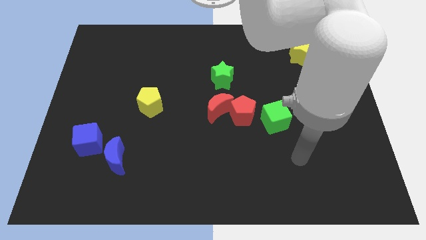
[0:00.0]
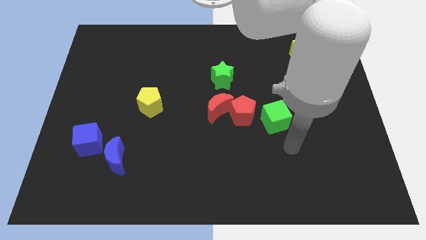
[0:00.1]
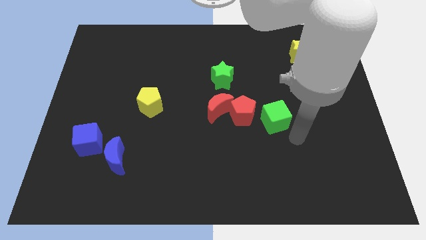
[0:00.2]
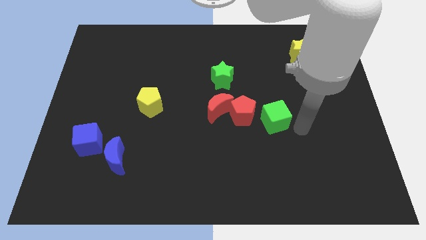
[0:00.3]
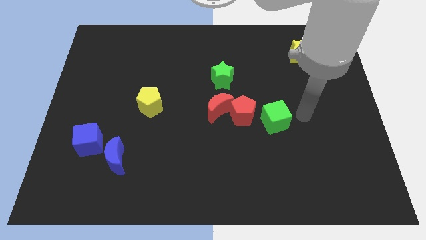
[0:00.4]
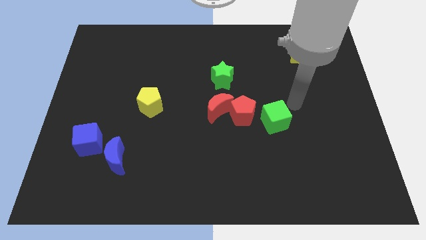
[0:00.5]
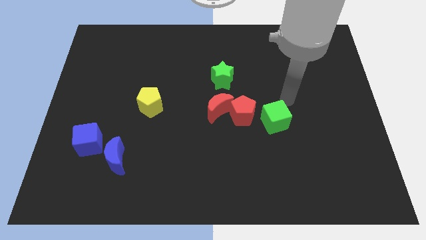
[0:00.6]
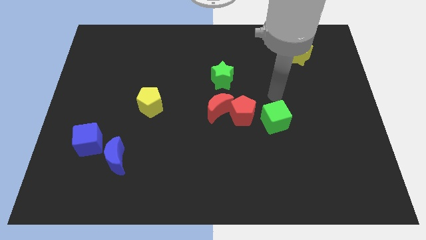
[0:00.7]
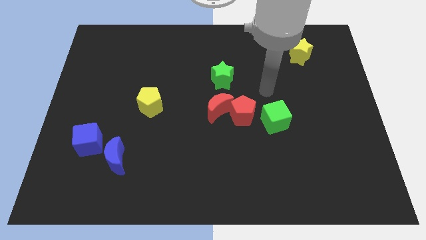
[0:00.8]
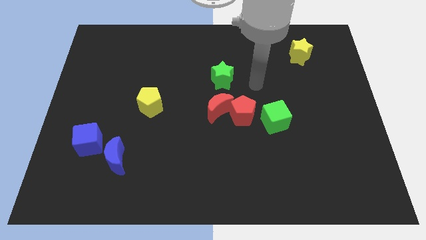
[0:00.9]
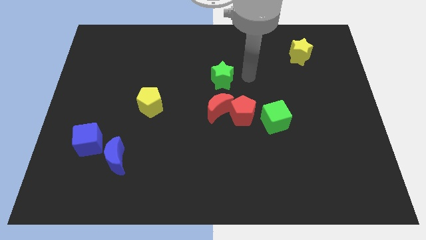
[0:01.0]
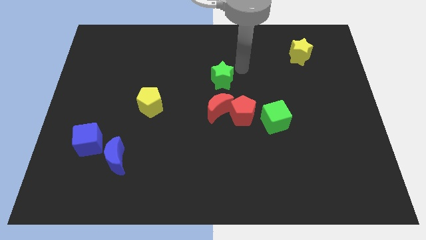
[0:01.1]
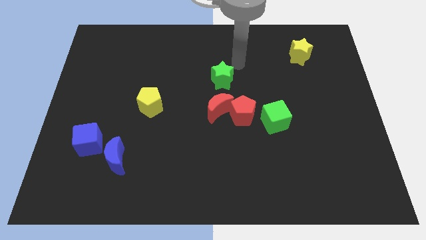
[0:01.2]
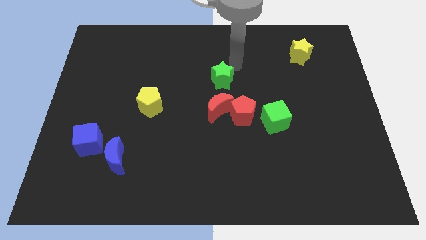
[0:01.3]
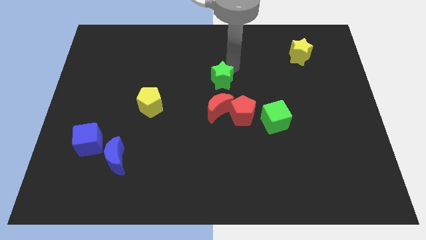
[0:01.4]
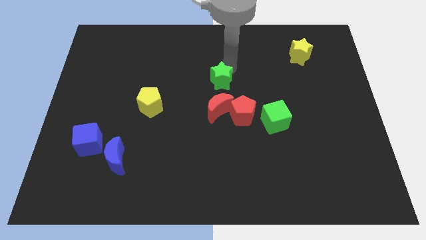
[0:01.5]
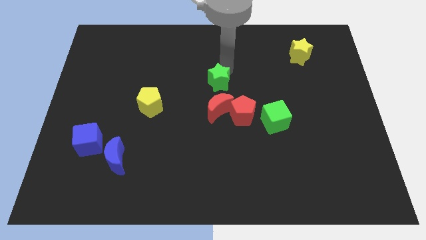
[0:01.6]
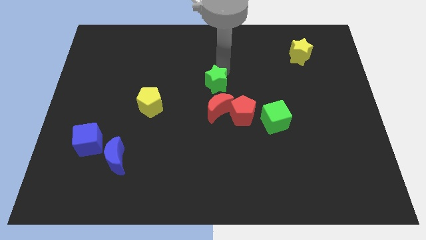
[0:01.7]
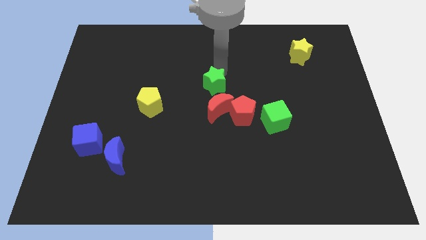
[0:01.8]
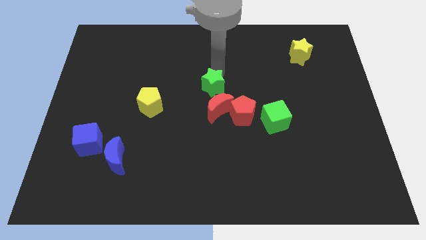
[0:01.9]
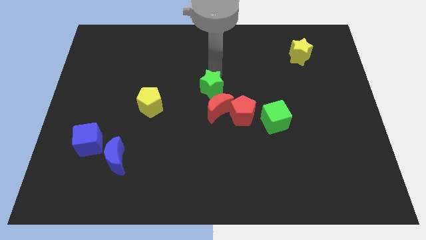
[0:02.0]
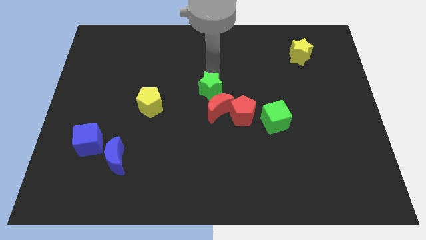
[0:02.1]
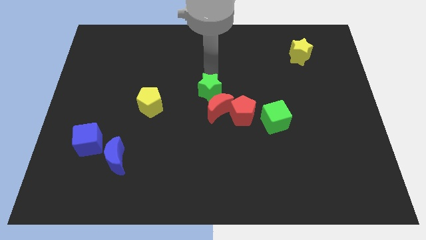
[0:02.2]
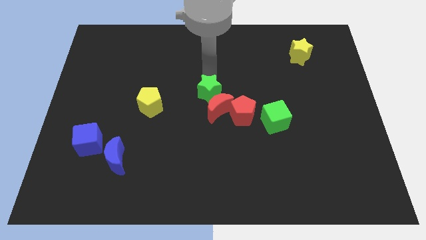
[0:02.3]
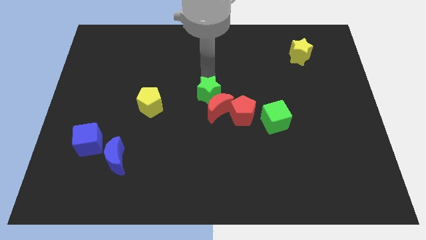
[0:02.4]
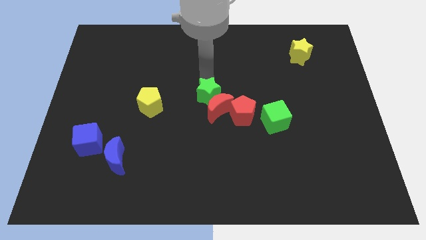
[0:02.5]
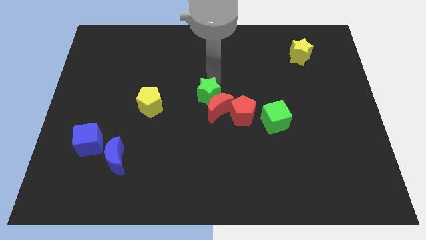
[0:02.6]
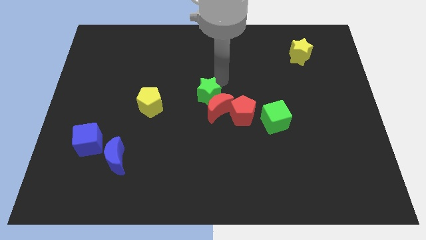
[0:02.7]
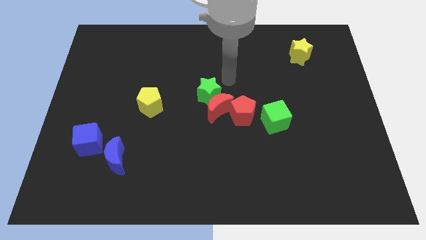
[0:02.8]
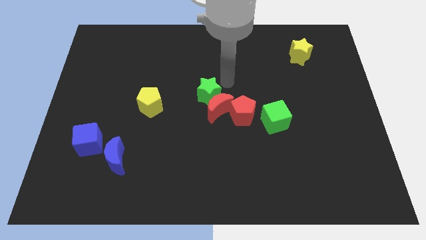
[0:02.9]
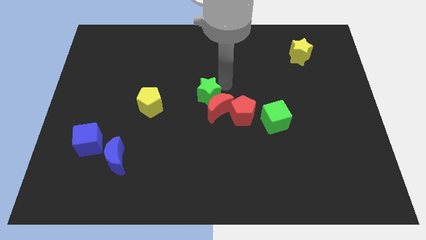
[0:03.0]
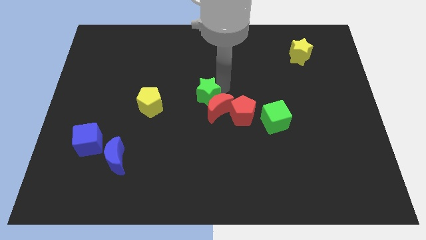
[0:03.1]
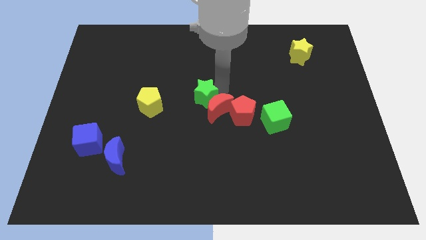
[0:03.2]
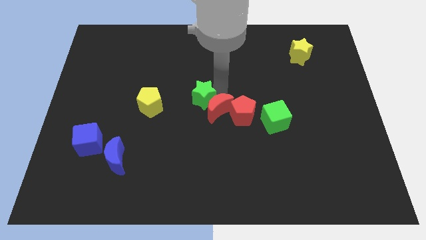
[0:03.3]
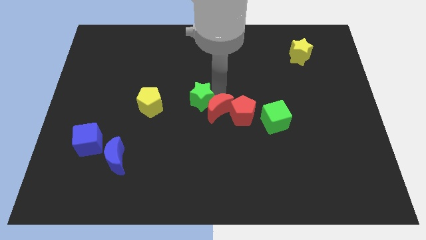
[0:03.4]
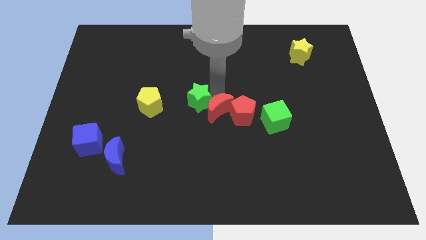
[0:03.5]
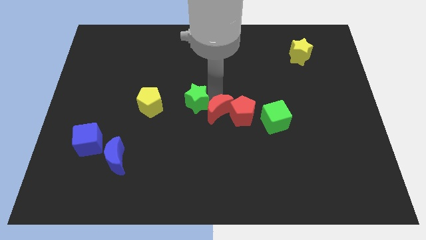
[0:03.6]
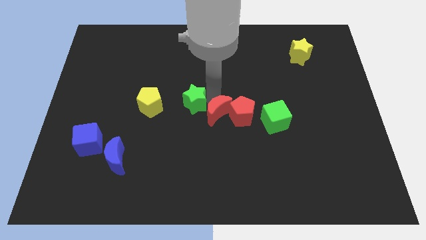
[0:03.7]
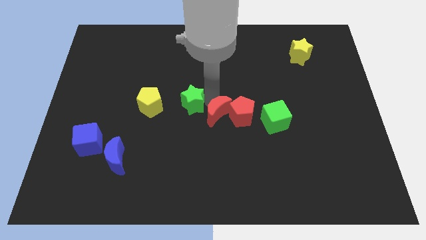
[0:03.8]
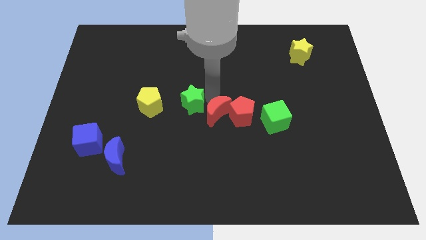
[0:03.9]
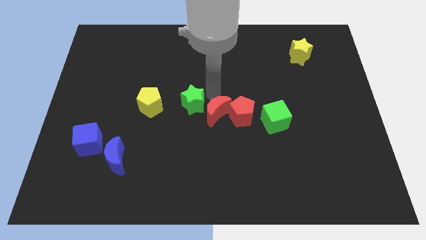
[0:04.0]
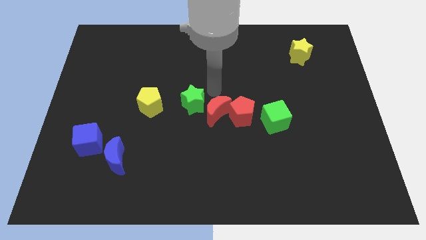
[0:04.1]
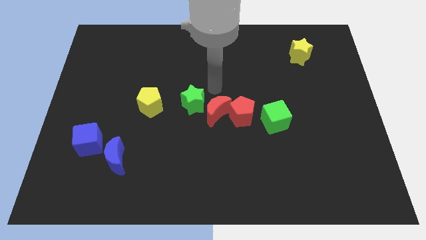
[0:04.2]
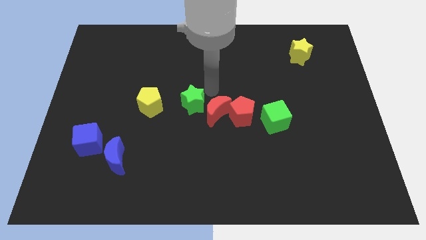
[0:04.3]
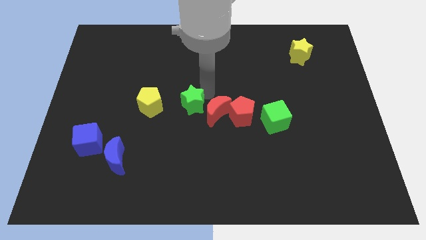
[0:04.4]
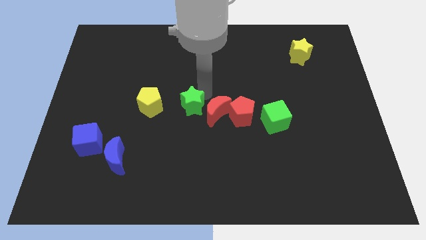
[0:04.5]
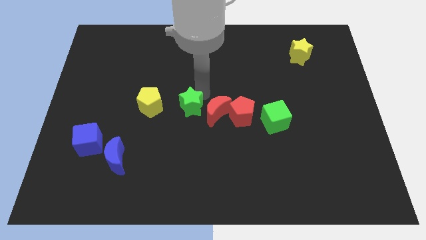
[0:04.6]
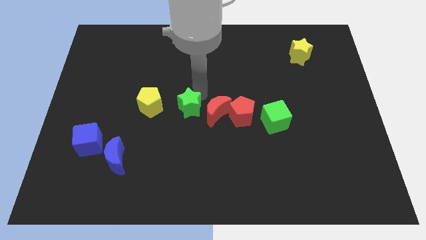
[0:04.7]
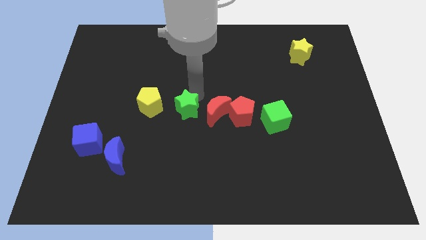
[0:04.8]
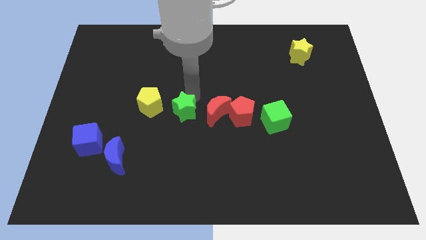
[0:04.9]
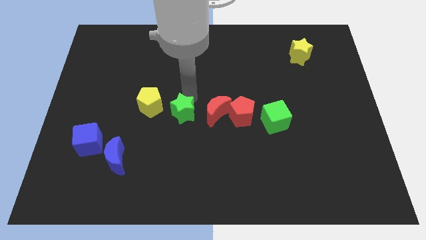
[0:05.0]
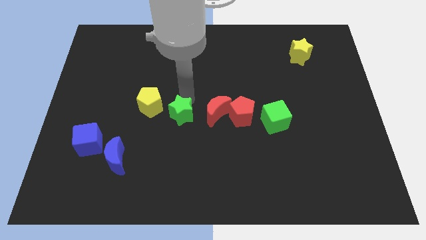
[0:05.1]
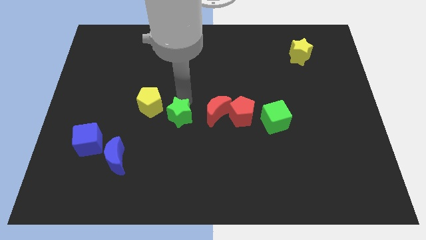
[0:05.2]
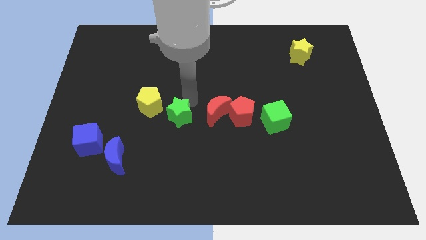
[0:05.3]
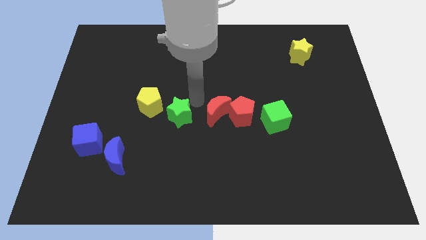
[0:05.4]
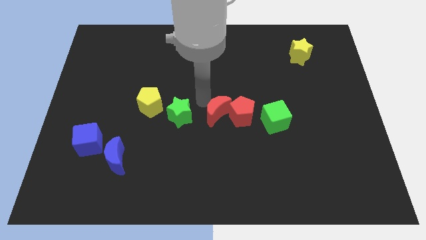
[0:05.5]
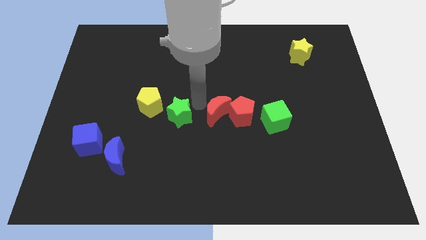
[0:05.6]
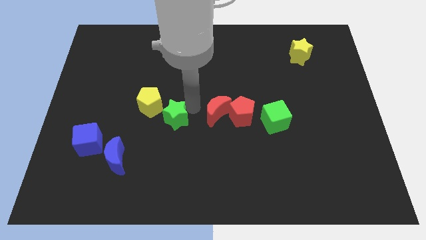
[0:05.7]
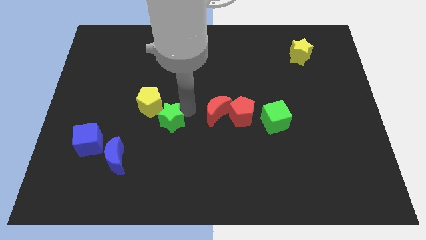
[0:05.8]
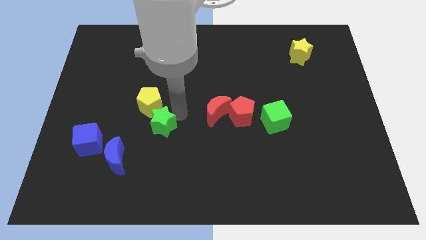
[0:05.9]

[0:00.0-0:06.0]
put the green star to the bottom of the yellow pentagon

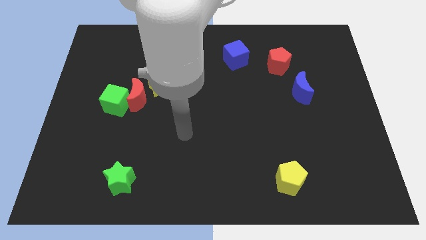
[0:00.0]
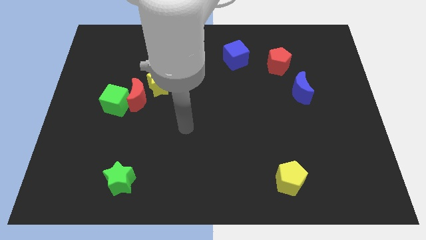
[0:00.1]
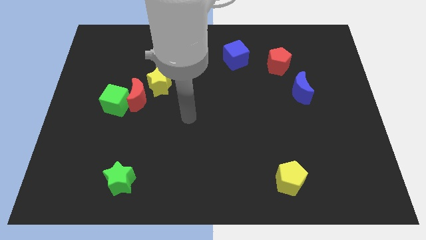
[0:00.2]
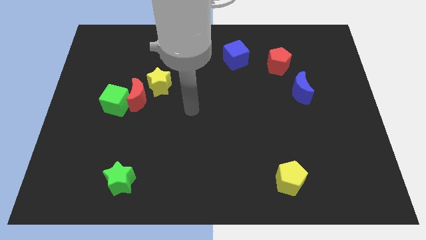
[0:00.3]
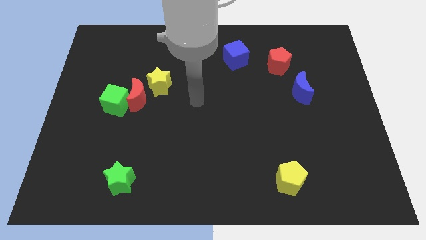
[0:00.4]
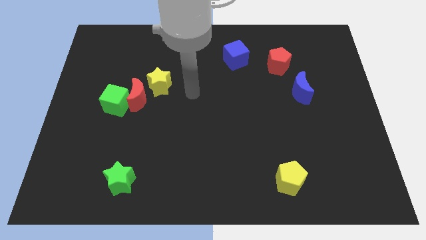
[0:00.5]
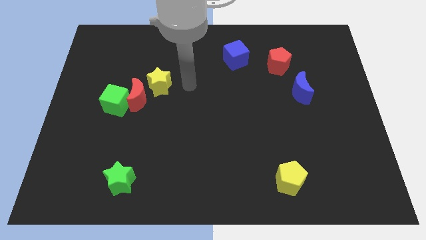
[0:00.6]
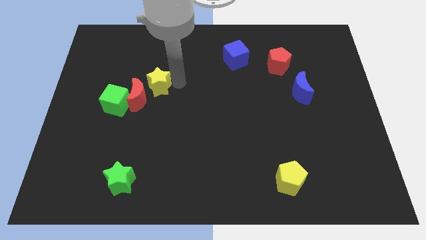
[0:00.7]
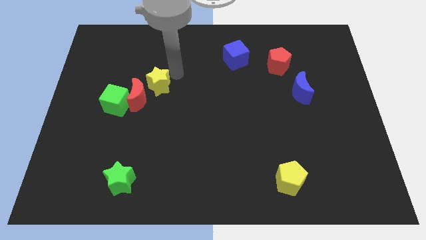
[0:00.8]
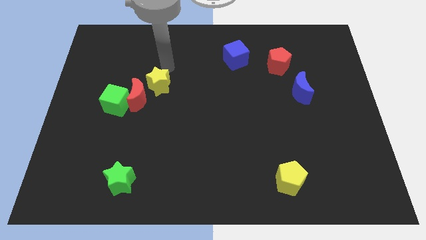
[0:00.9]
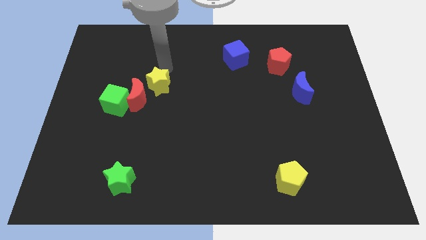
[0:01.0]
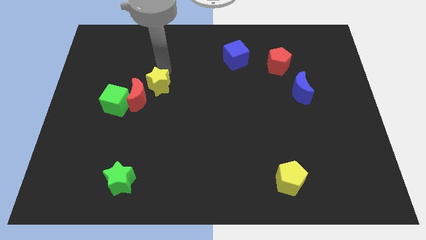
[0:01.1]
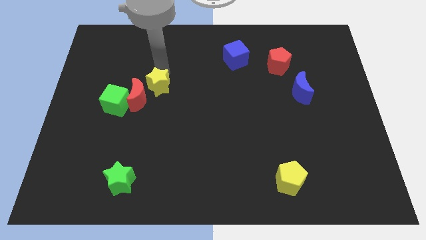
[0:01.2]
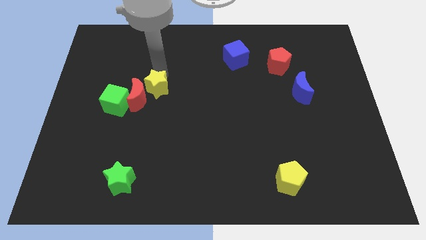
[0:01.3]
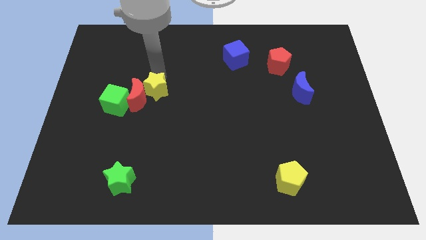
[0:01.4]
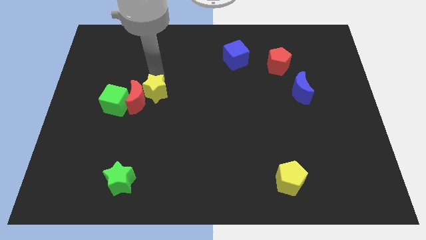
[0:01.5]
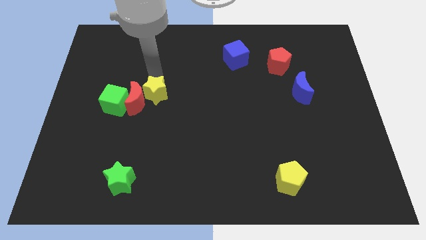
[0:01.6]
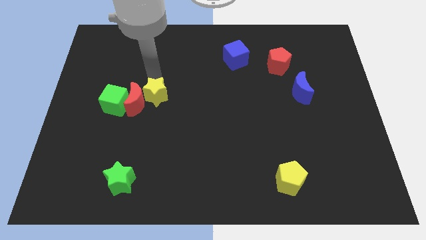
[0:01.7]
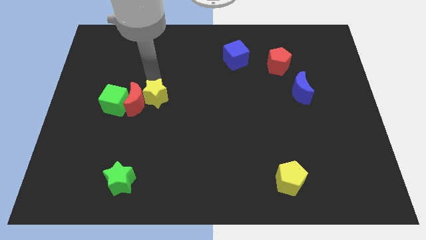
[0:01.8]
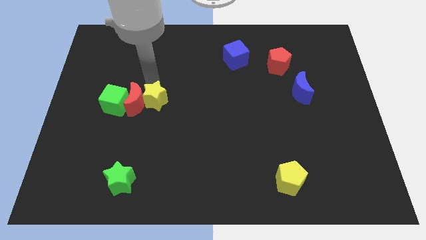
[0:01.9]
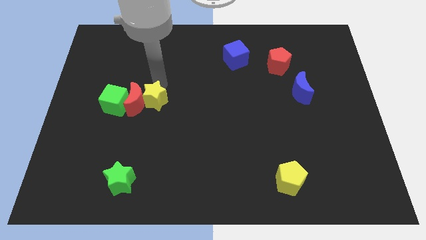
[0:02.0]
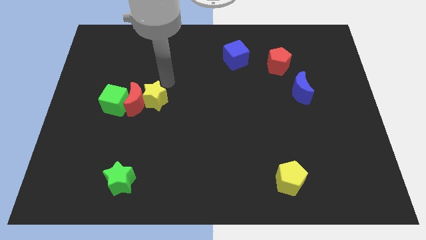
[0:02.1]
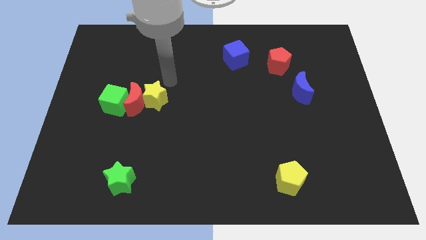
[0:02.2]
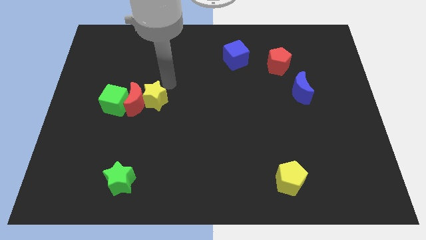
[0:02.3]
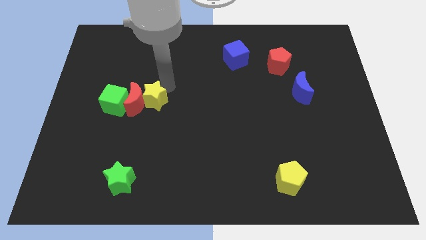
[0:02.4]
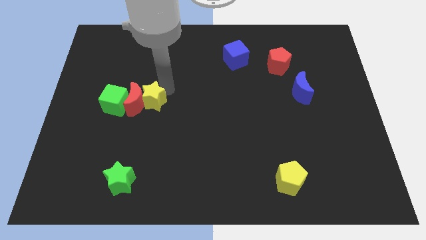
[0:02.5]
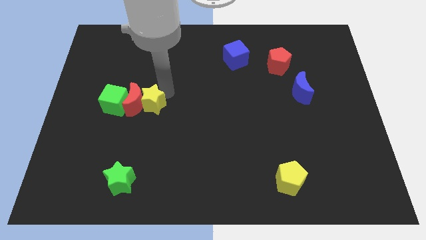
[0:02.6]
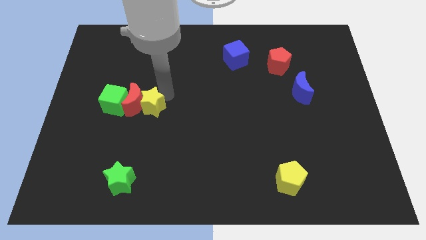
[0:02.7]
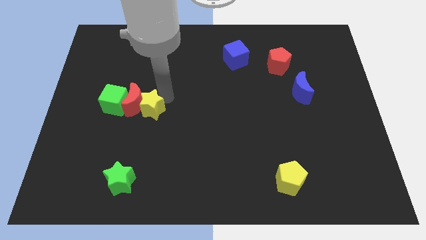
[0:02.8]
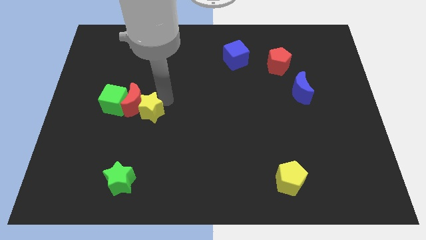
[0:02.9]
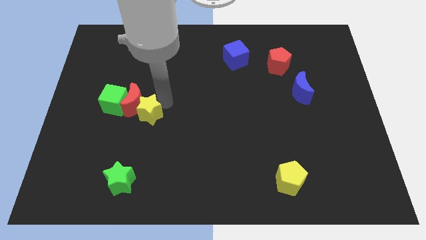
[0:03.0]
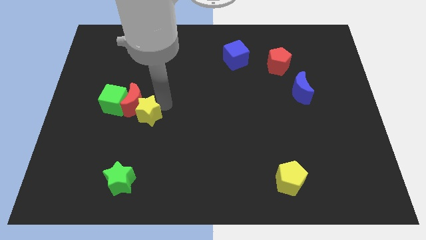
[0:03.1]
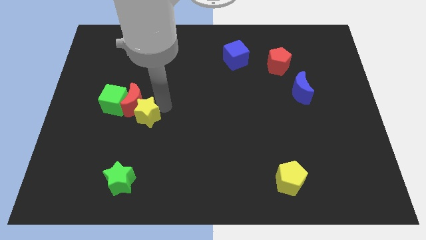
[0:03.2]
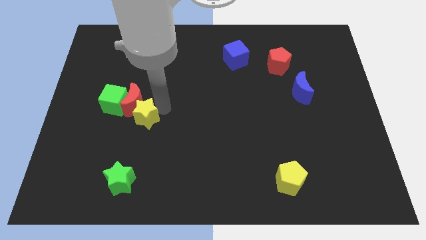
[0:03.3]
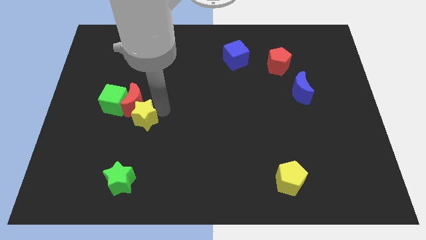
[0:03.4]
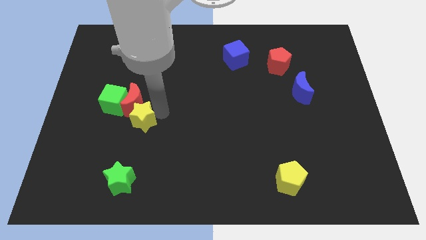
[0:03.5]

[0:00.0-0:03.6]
put the yellow star to the top side of the green star
